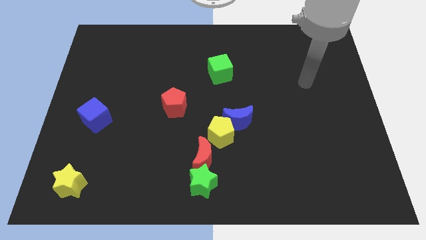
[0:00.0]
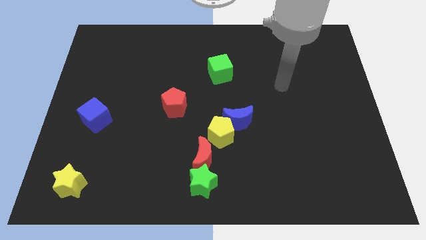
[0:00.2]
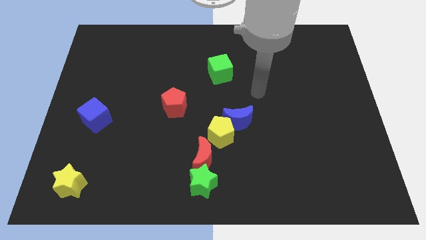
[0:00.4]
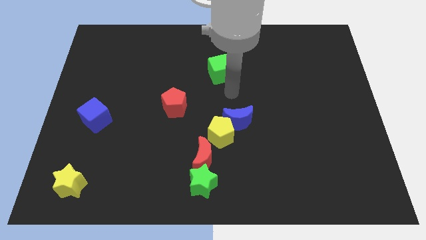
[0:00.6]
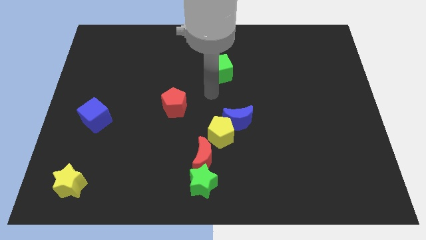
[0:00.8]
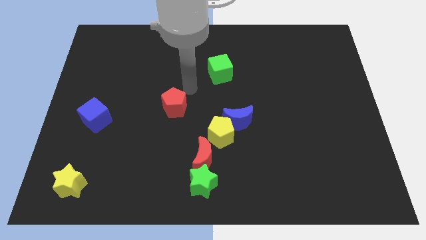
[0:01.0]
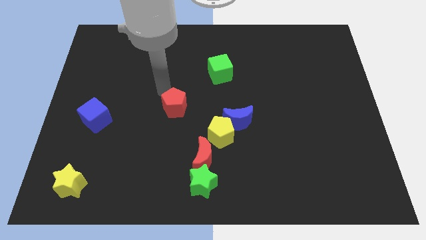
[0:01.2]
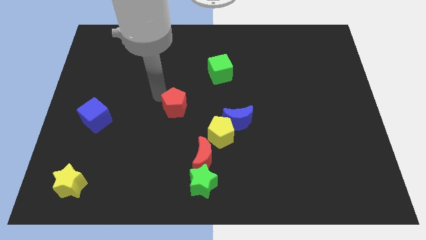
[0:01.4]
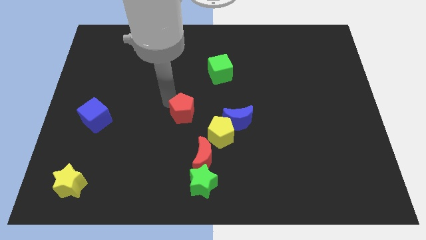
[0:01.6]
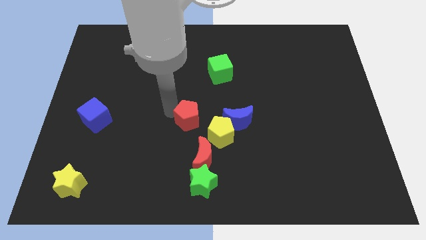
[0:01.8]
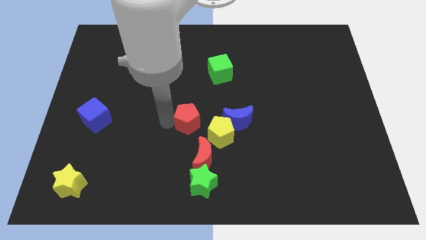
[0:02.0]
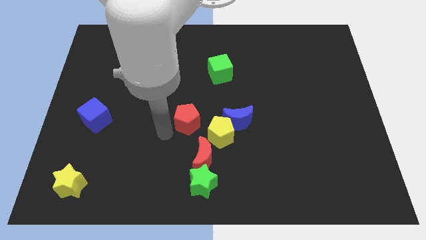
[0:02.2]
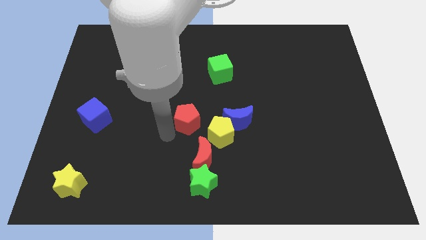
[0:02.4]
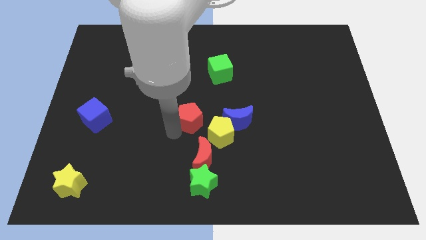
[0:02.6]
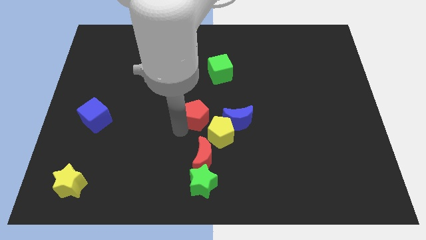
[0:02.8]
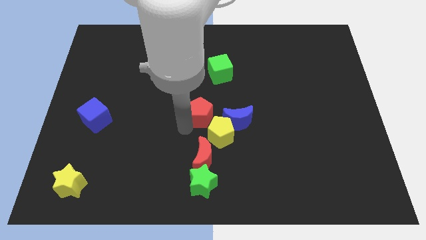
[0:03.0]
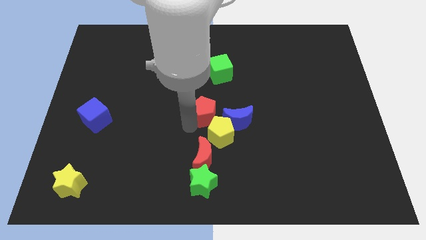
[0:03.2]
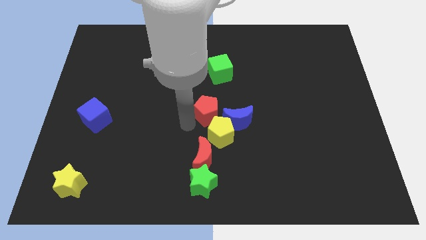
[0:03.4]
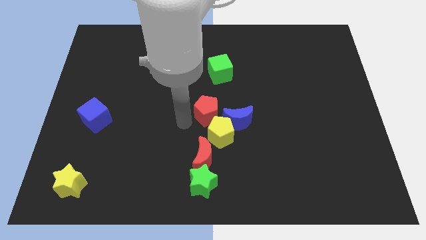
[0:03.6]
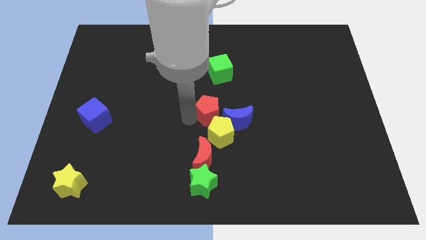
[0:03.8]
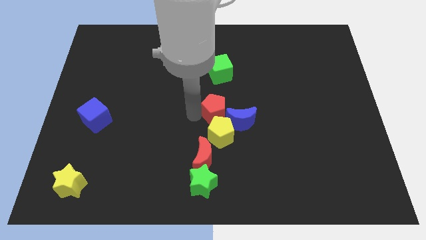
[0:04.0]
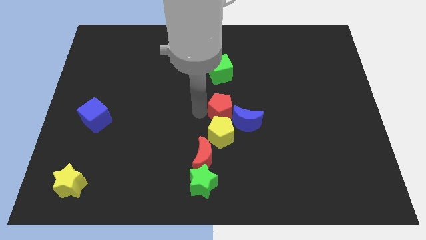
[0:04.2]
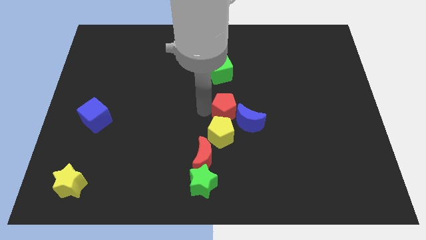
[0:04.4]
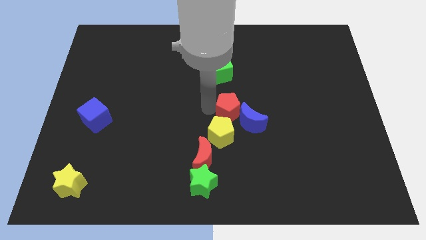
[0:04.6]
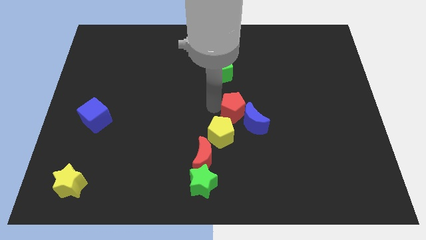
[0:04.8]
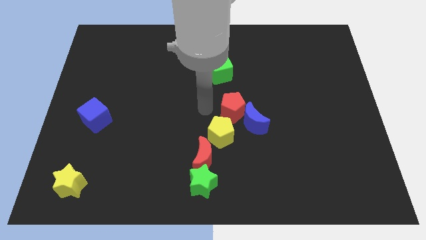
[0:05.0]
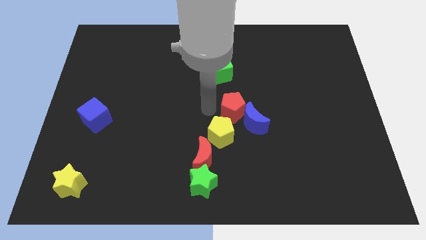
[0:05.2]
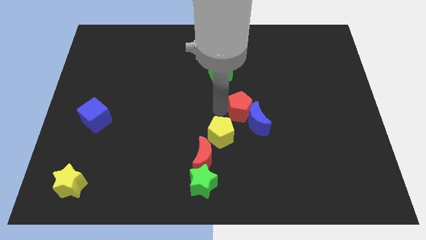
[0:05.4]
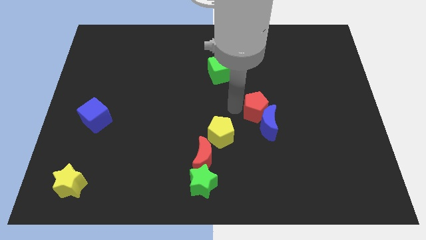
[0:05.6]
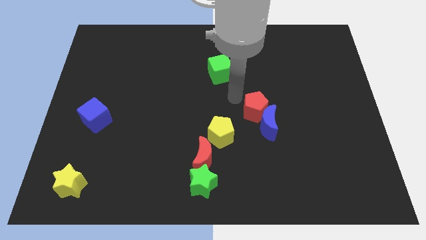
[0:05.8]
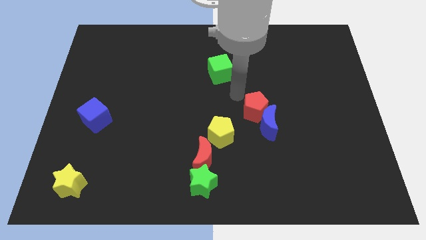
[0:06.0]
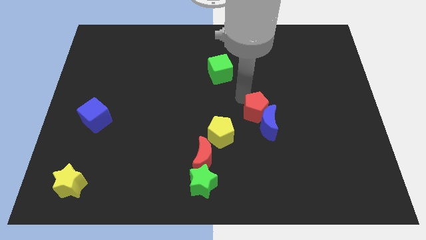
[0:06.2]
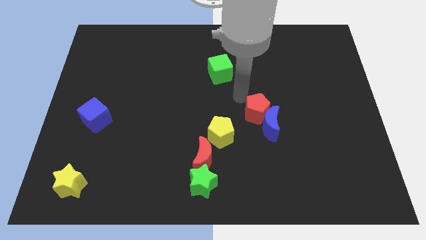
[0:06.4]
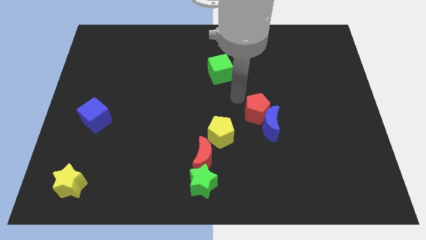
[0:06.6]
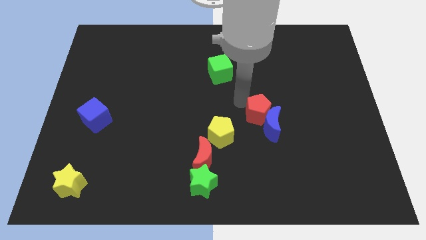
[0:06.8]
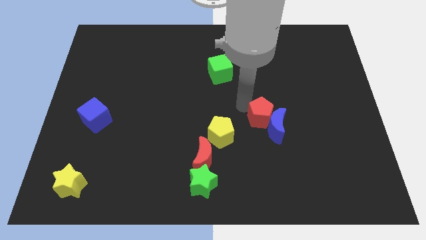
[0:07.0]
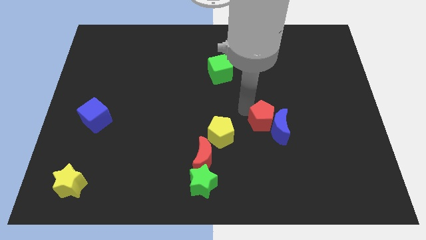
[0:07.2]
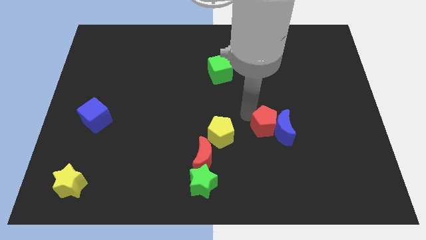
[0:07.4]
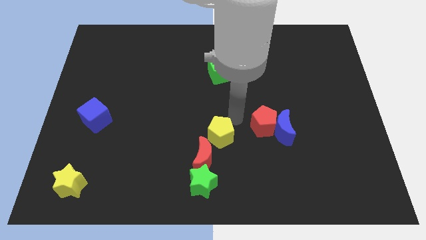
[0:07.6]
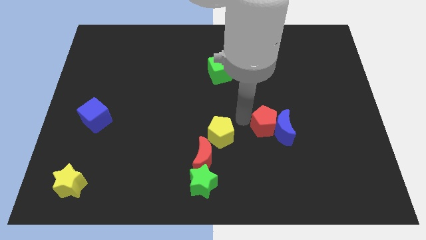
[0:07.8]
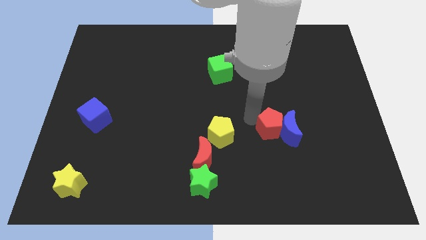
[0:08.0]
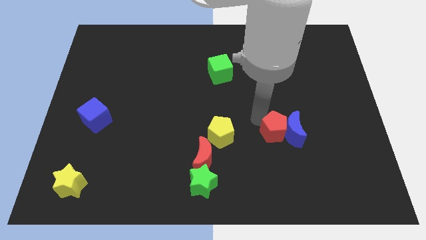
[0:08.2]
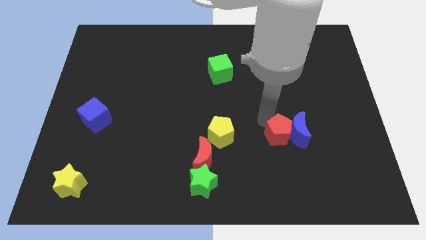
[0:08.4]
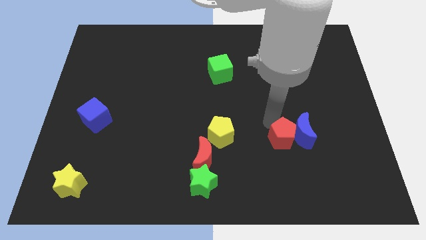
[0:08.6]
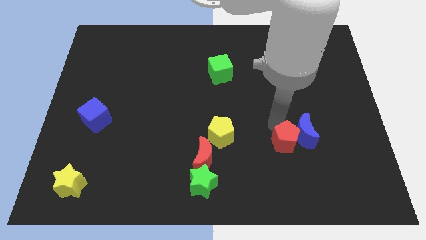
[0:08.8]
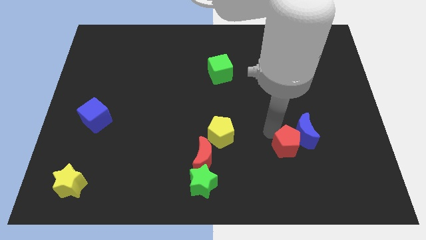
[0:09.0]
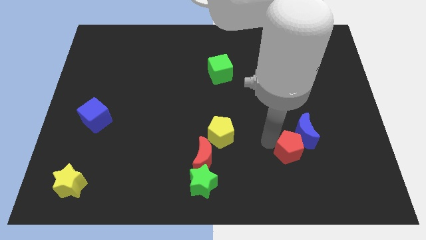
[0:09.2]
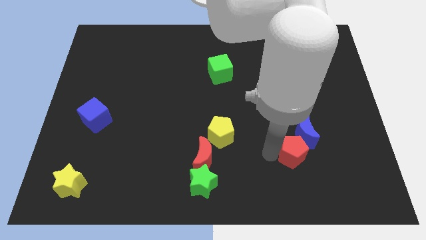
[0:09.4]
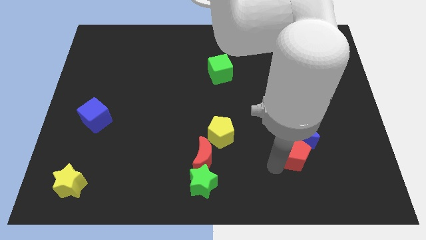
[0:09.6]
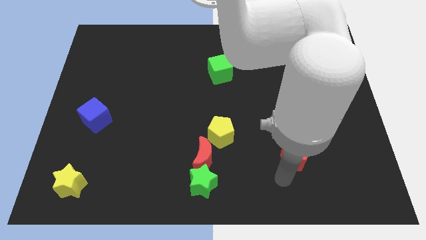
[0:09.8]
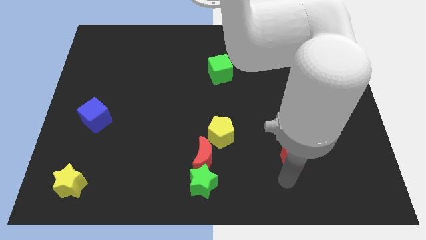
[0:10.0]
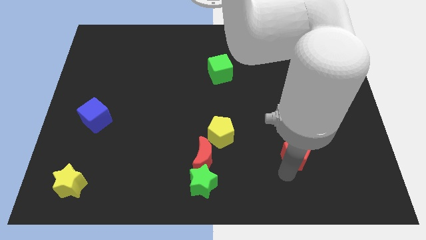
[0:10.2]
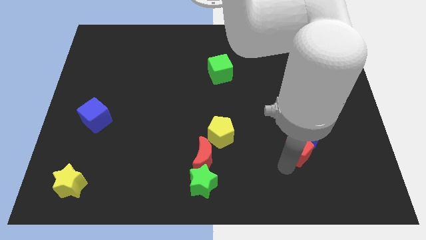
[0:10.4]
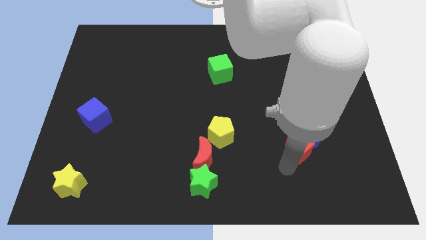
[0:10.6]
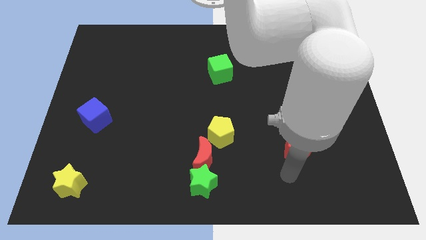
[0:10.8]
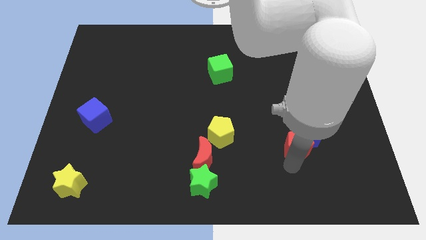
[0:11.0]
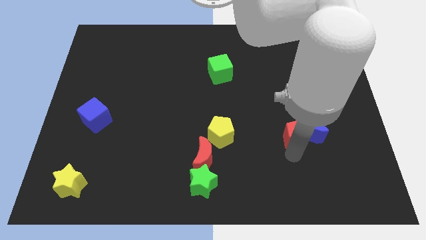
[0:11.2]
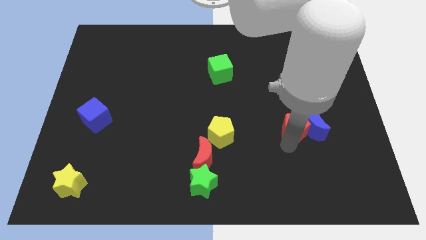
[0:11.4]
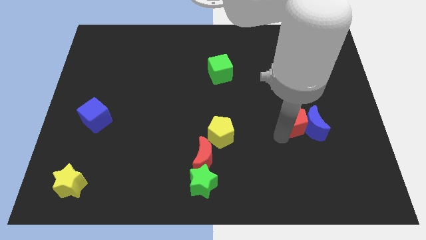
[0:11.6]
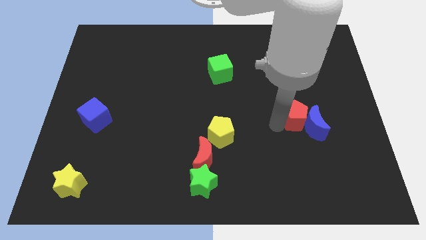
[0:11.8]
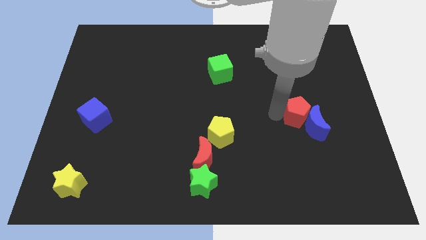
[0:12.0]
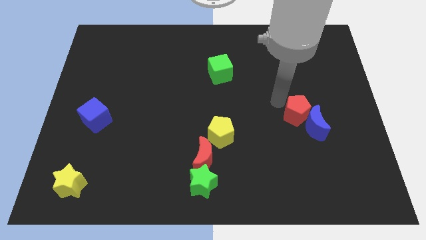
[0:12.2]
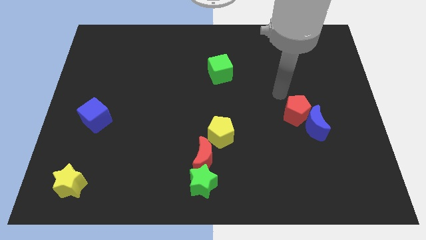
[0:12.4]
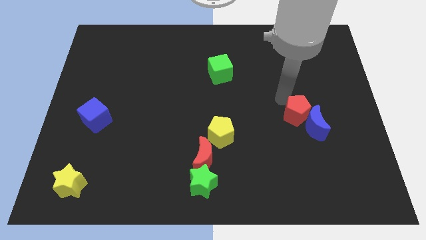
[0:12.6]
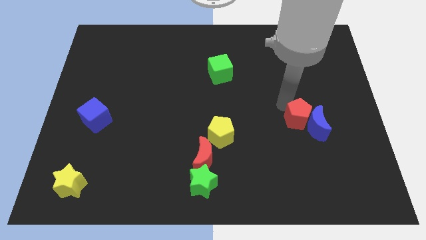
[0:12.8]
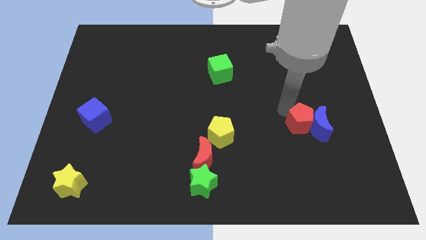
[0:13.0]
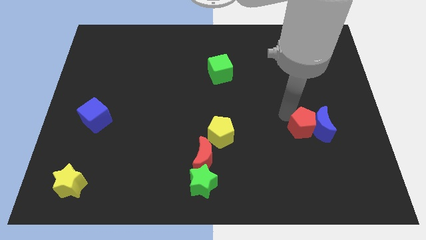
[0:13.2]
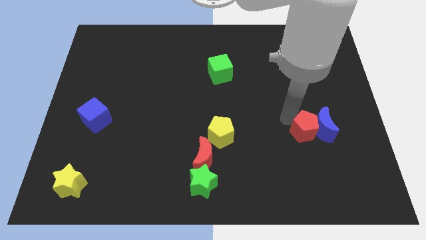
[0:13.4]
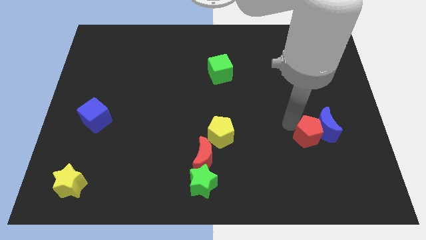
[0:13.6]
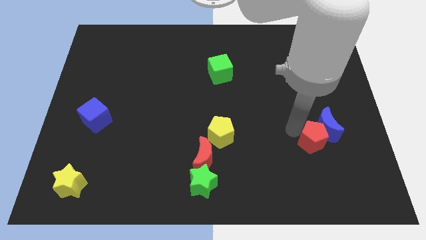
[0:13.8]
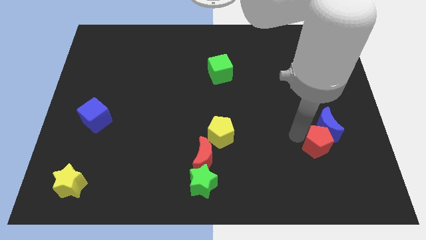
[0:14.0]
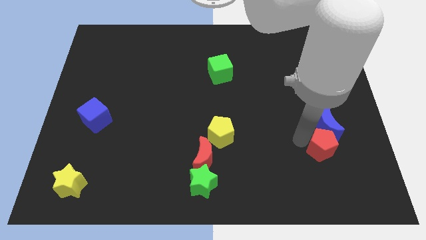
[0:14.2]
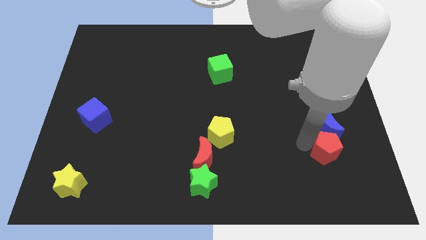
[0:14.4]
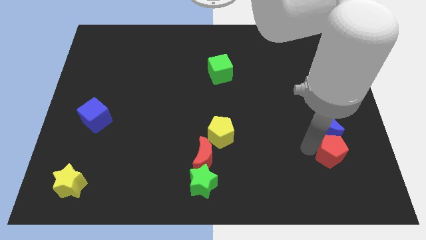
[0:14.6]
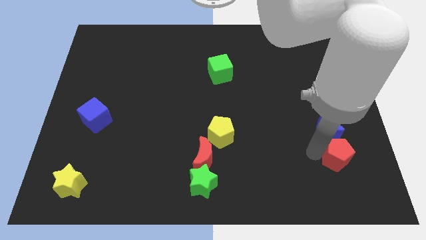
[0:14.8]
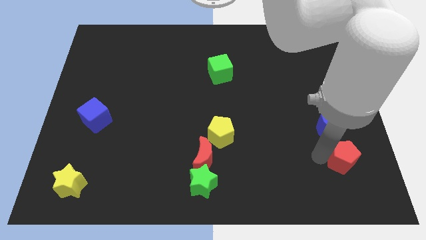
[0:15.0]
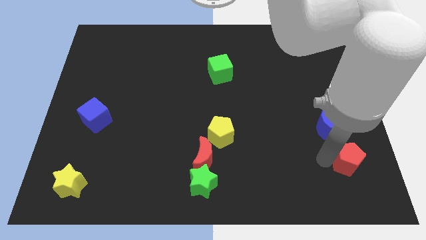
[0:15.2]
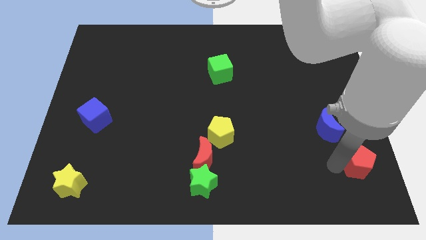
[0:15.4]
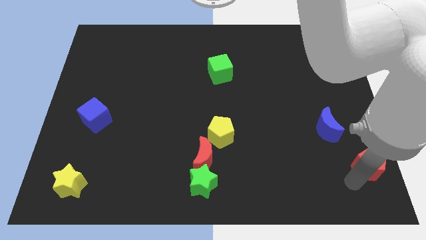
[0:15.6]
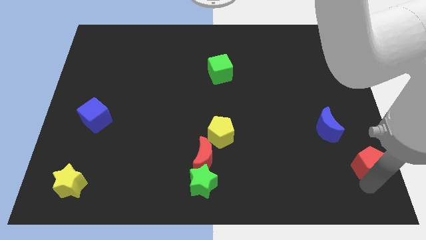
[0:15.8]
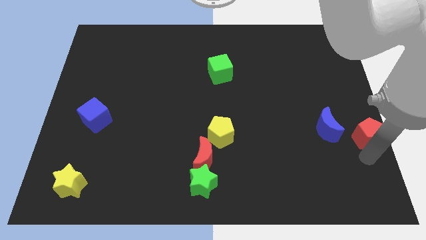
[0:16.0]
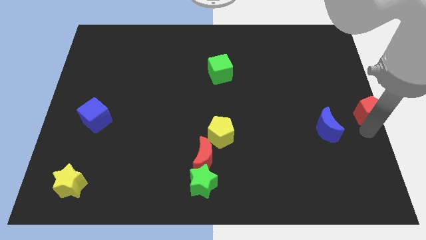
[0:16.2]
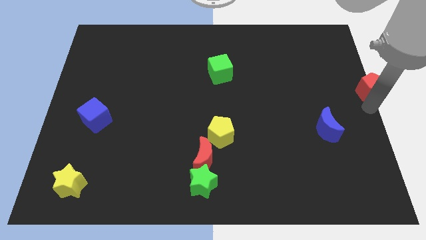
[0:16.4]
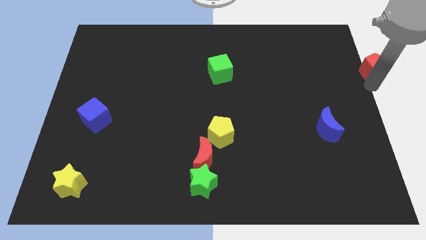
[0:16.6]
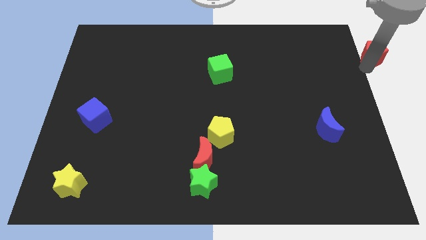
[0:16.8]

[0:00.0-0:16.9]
push the red pentagon to the upper right corner
